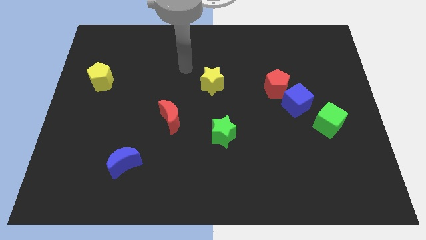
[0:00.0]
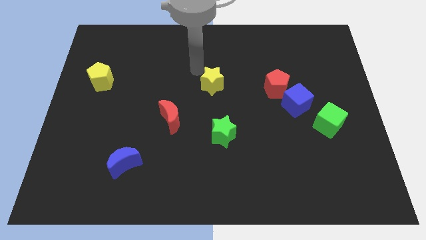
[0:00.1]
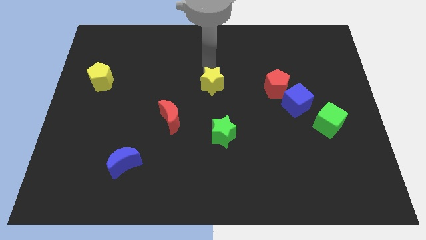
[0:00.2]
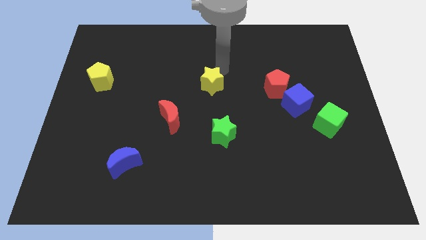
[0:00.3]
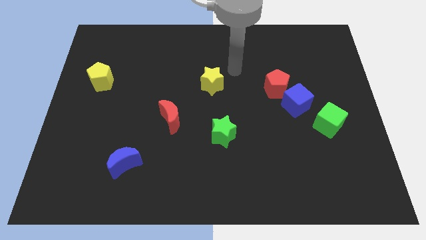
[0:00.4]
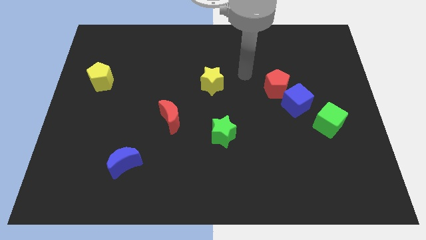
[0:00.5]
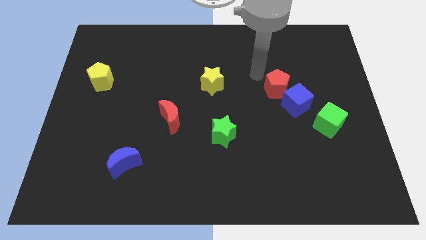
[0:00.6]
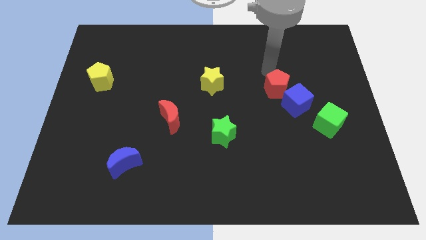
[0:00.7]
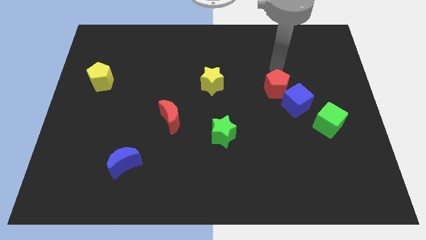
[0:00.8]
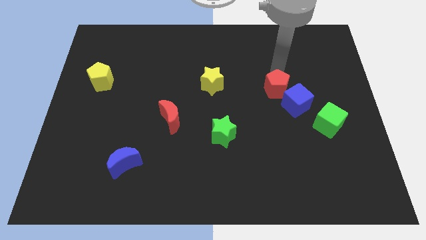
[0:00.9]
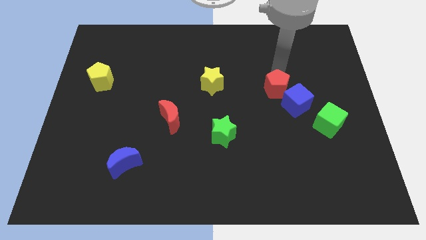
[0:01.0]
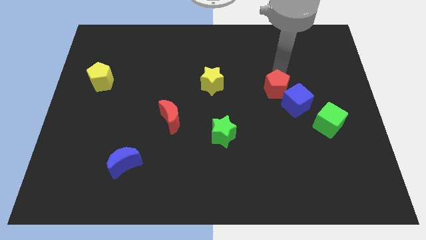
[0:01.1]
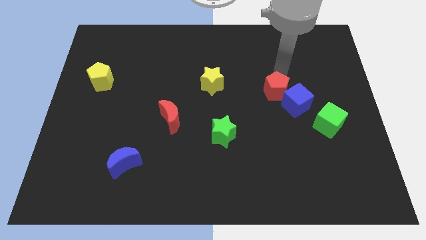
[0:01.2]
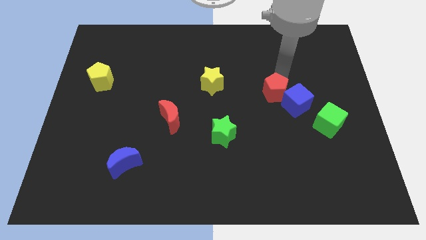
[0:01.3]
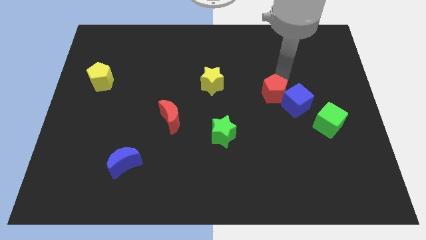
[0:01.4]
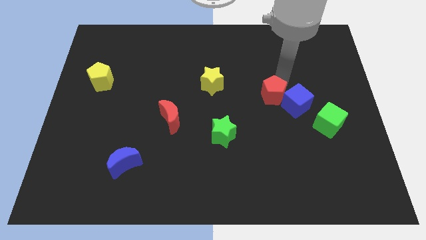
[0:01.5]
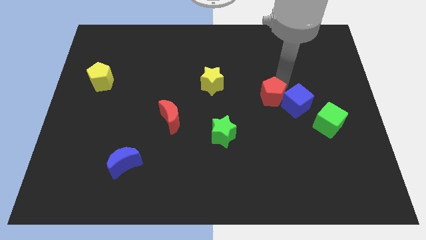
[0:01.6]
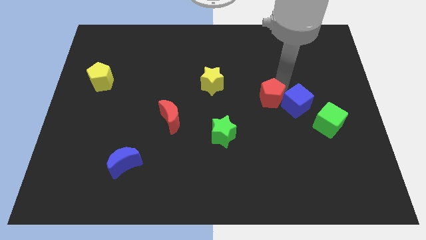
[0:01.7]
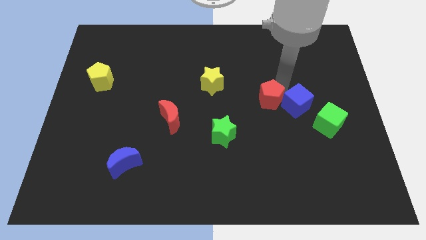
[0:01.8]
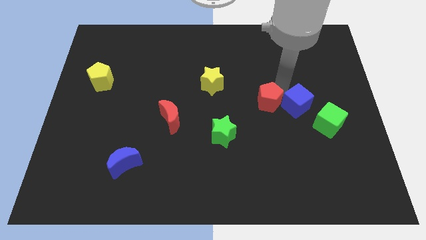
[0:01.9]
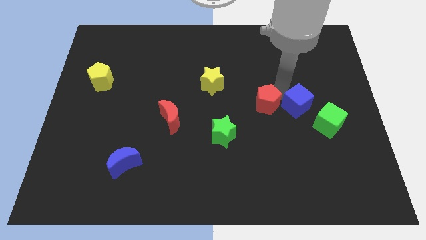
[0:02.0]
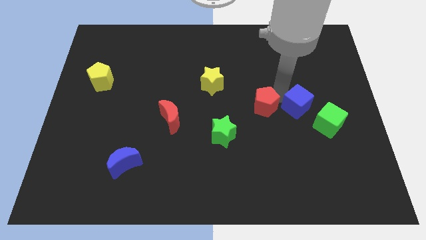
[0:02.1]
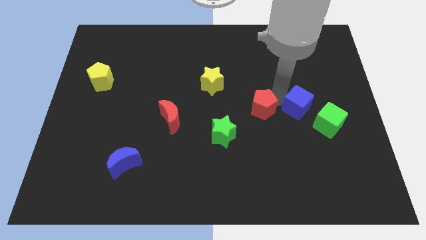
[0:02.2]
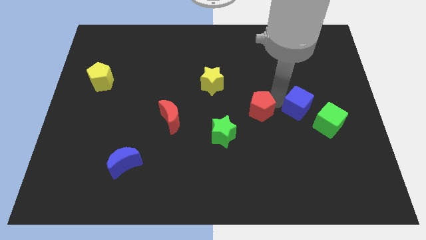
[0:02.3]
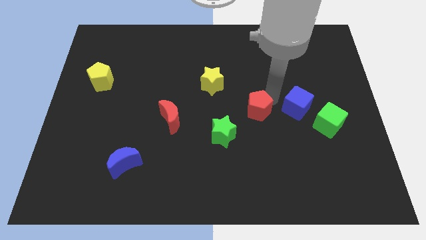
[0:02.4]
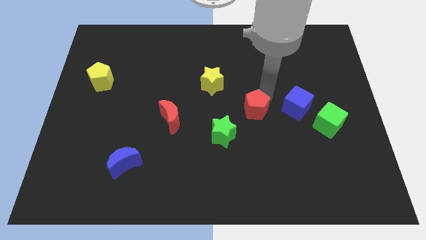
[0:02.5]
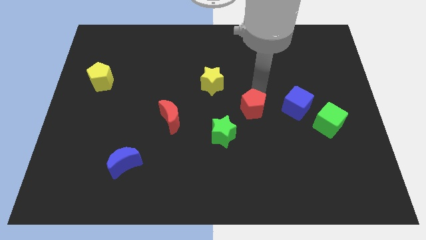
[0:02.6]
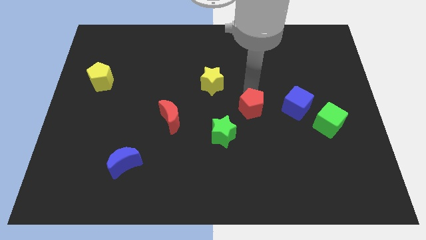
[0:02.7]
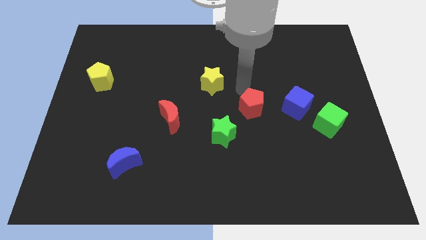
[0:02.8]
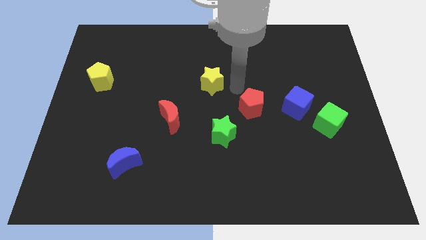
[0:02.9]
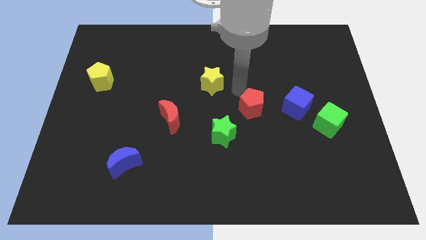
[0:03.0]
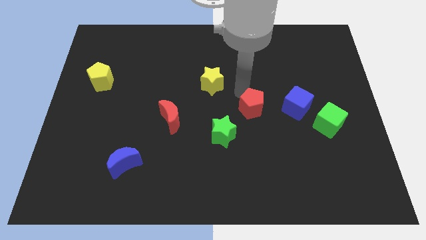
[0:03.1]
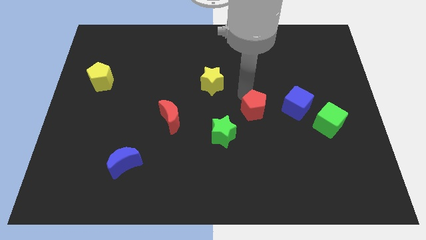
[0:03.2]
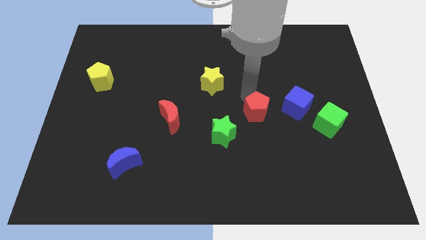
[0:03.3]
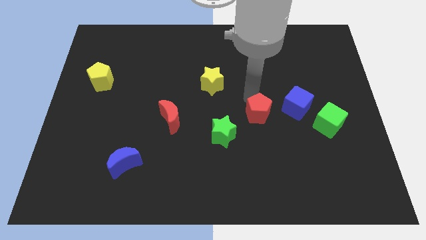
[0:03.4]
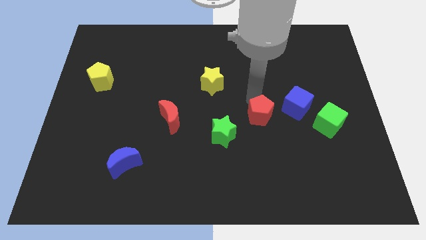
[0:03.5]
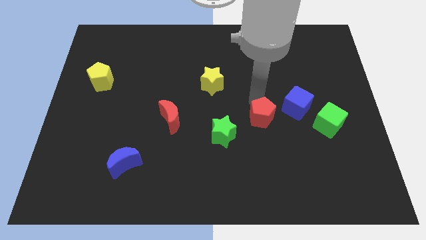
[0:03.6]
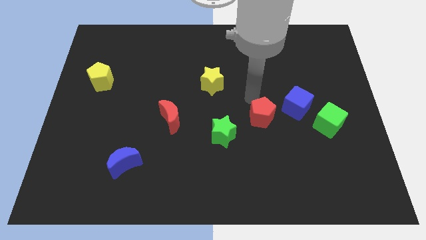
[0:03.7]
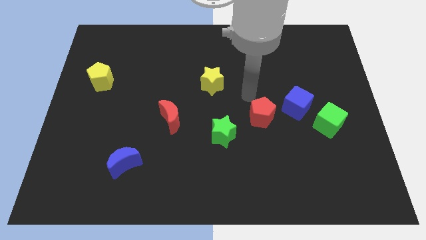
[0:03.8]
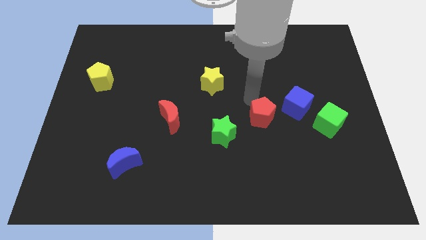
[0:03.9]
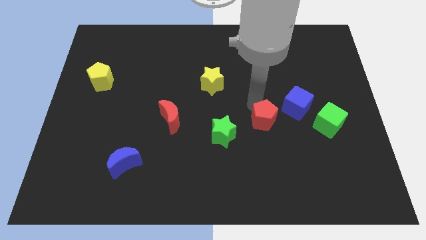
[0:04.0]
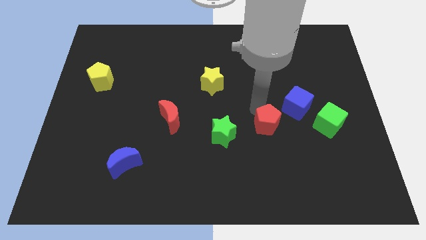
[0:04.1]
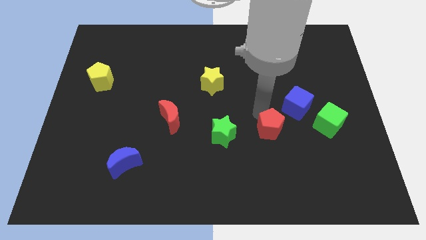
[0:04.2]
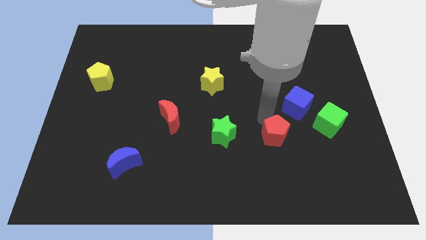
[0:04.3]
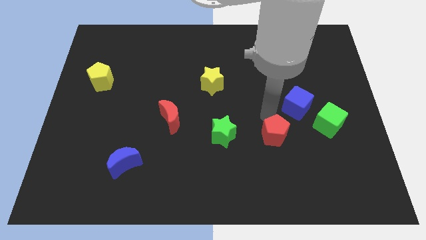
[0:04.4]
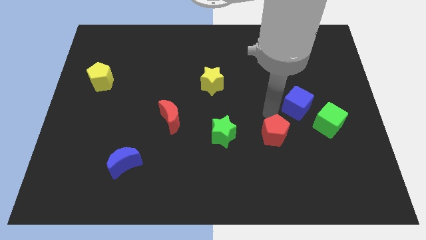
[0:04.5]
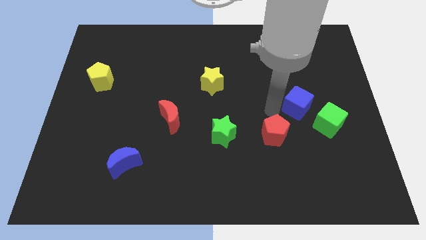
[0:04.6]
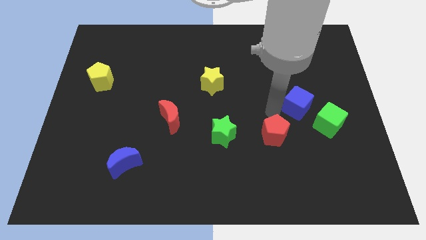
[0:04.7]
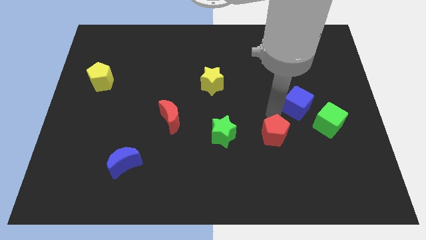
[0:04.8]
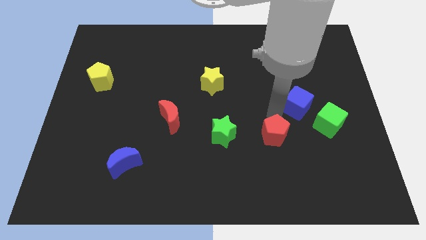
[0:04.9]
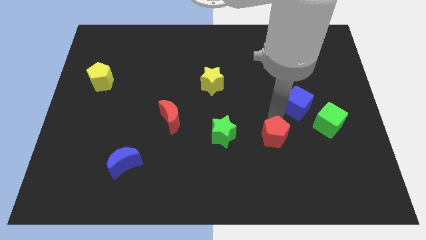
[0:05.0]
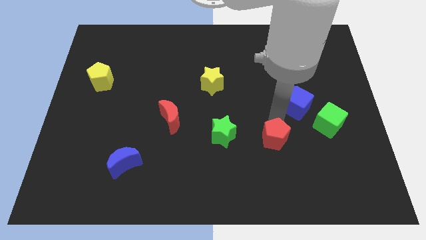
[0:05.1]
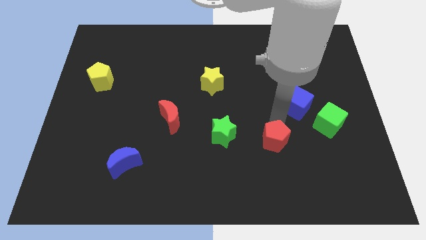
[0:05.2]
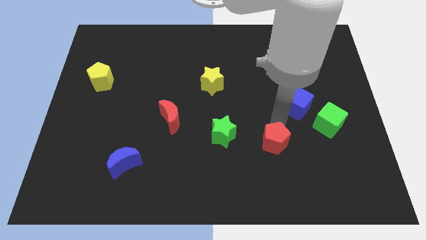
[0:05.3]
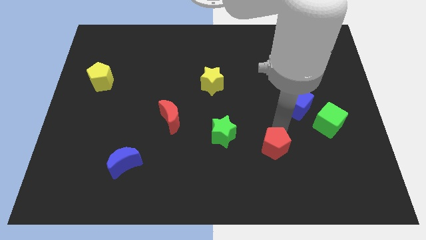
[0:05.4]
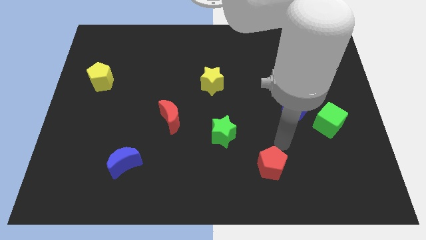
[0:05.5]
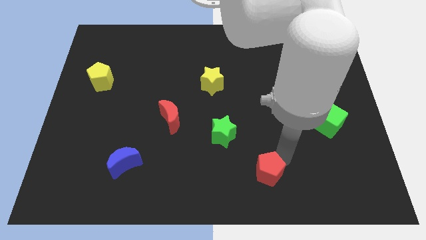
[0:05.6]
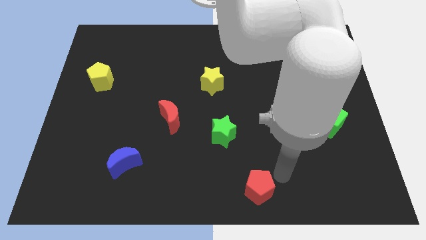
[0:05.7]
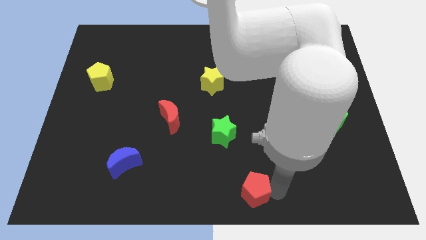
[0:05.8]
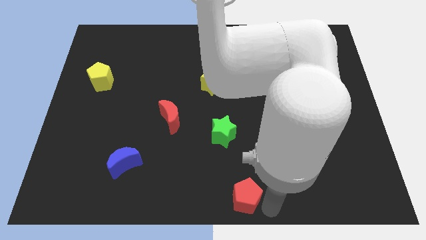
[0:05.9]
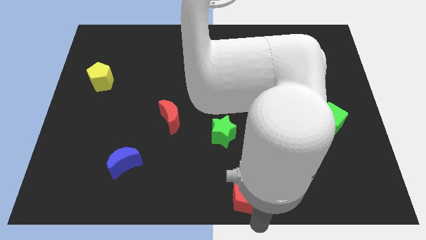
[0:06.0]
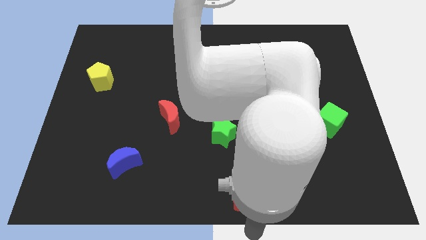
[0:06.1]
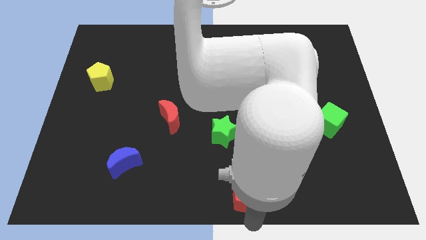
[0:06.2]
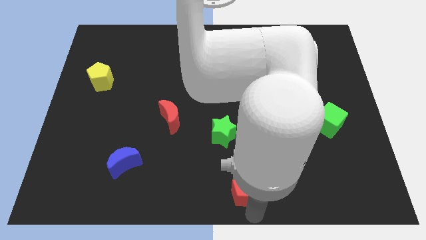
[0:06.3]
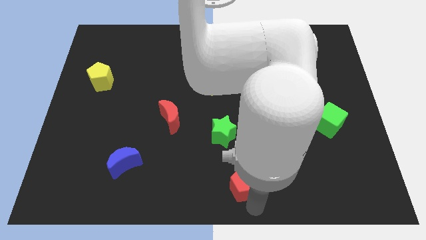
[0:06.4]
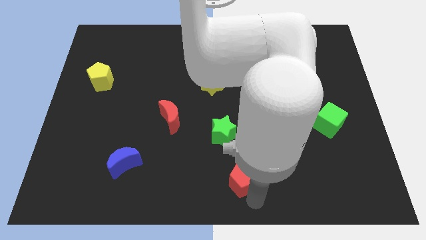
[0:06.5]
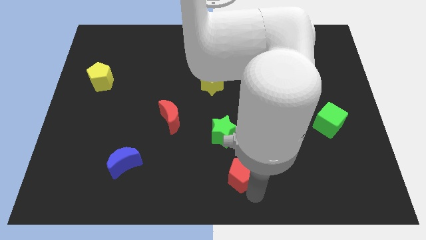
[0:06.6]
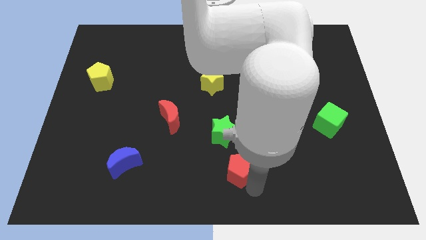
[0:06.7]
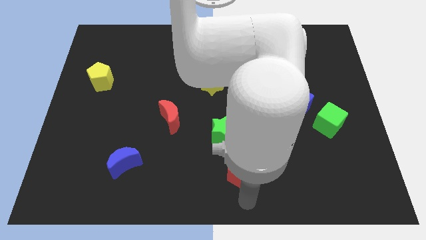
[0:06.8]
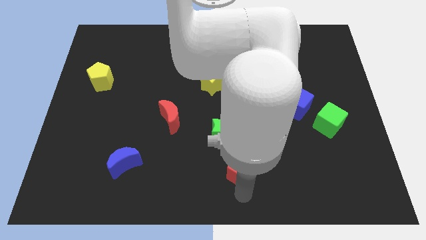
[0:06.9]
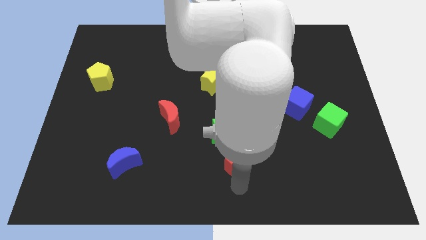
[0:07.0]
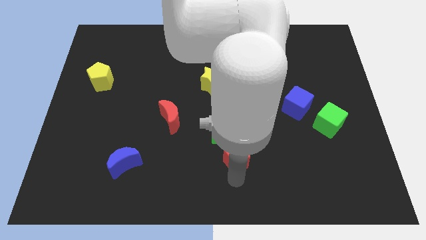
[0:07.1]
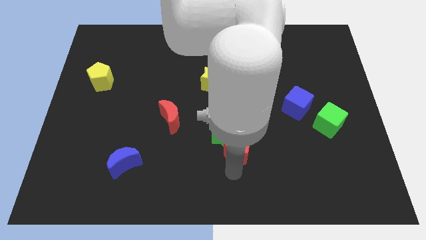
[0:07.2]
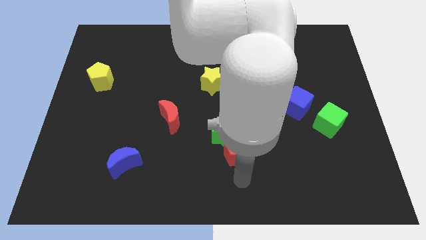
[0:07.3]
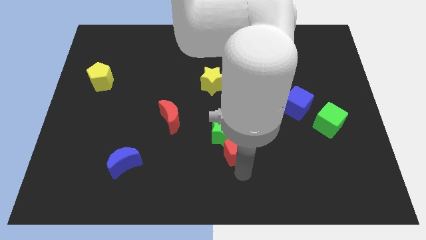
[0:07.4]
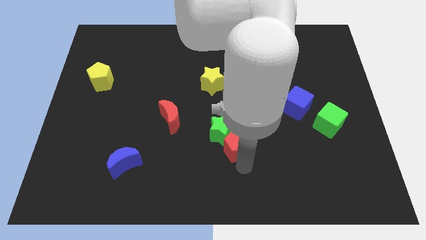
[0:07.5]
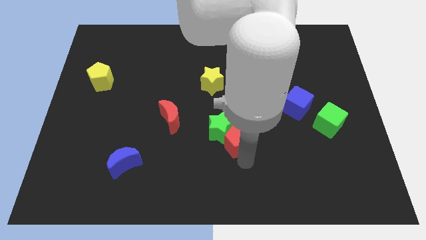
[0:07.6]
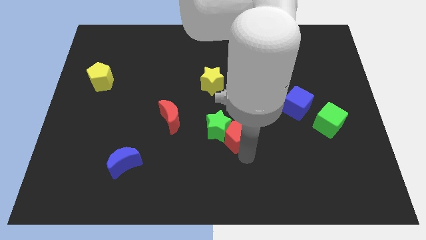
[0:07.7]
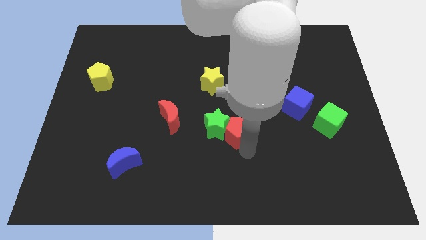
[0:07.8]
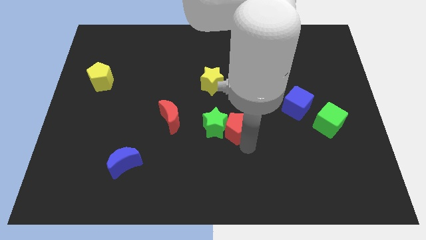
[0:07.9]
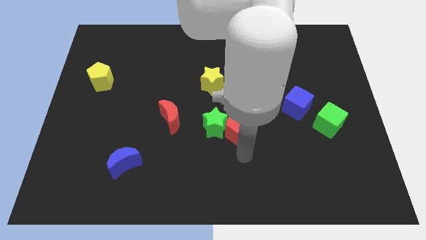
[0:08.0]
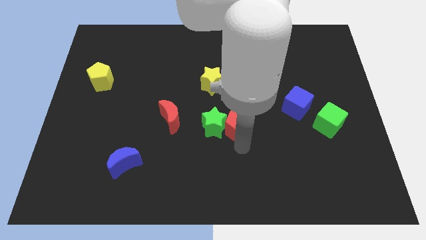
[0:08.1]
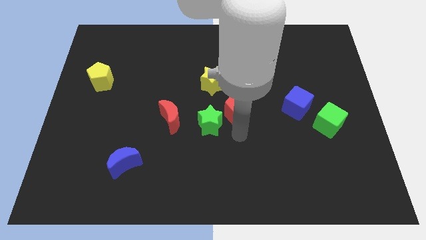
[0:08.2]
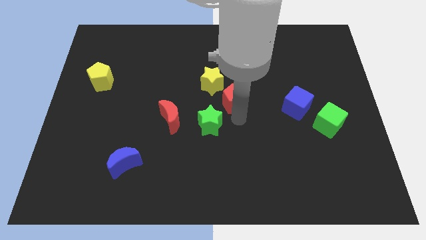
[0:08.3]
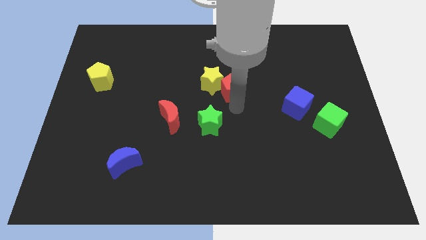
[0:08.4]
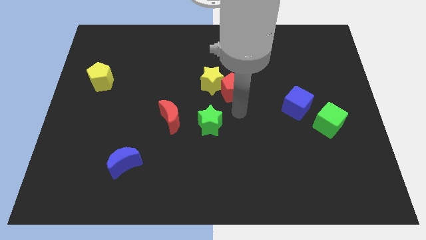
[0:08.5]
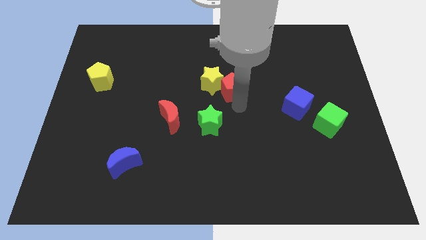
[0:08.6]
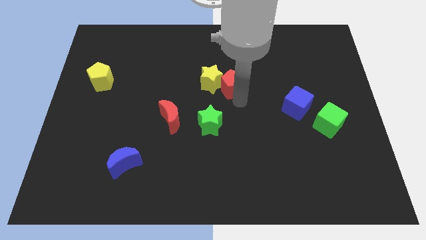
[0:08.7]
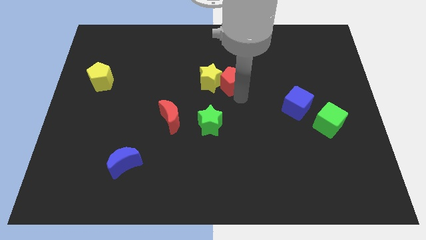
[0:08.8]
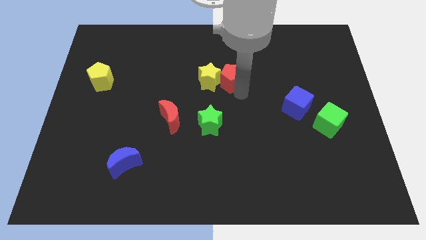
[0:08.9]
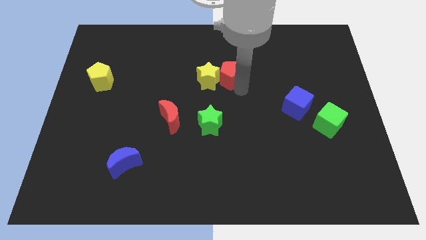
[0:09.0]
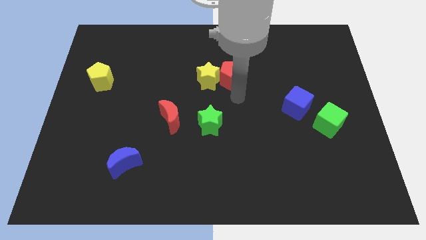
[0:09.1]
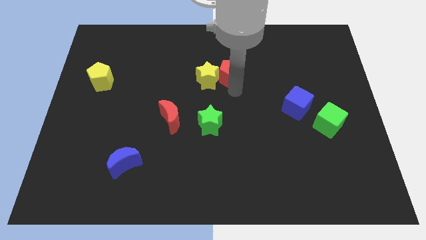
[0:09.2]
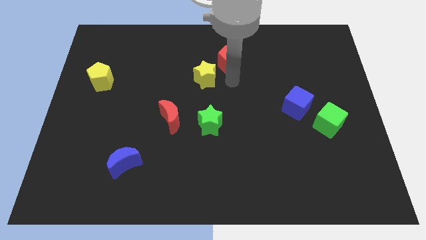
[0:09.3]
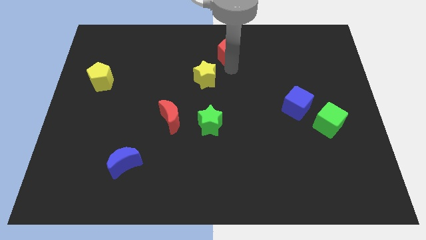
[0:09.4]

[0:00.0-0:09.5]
slide the red pentagon to the top side
